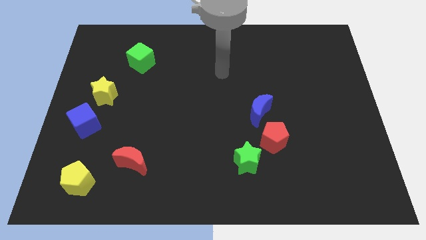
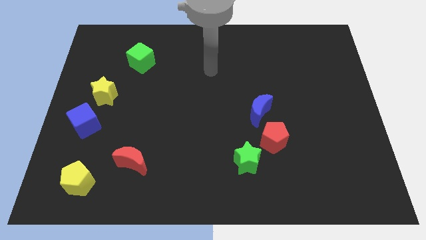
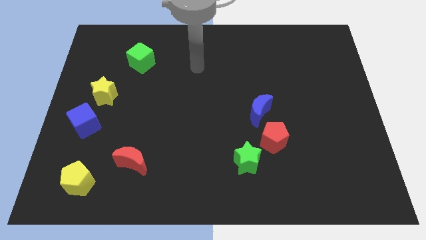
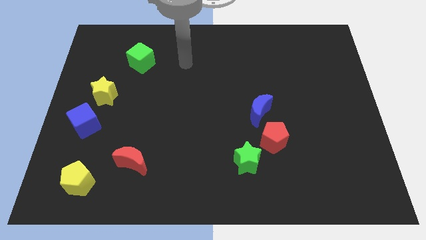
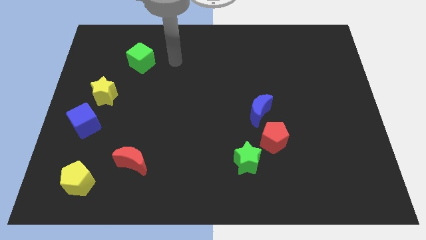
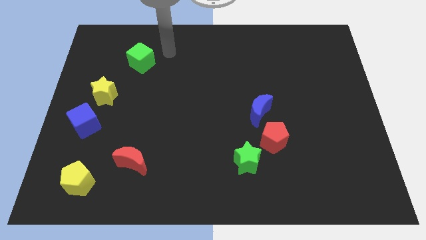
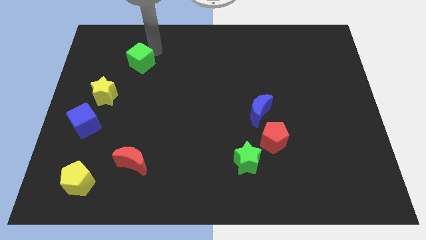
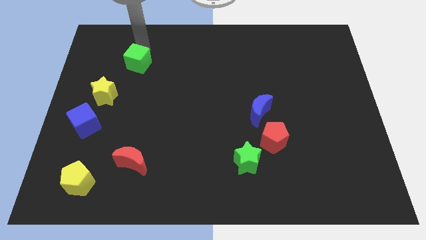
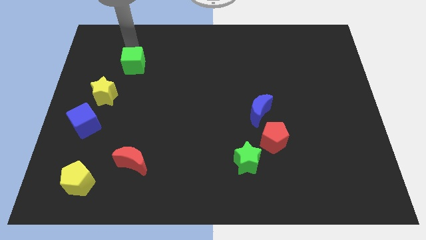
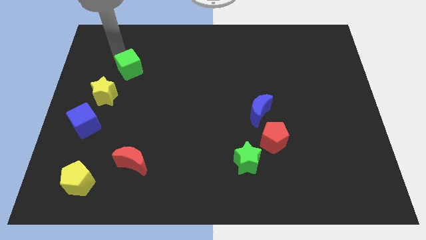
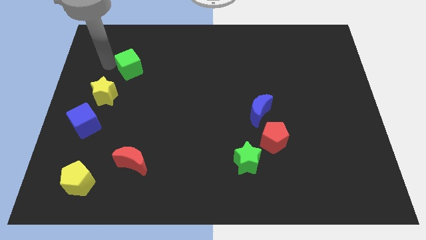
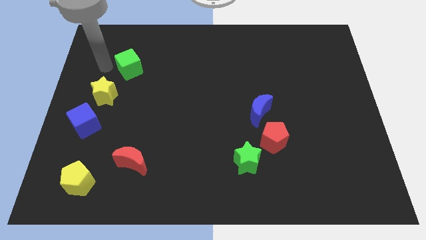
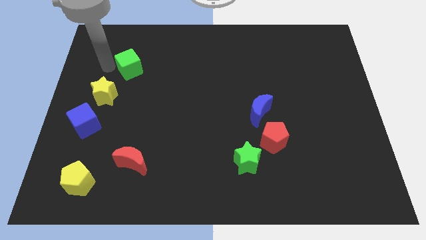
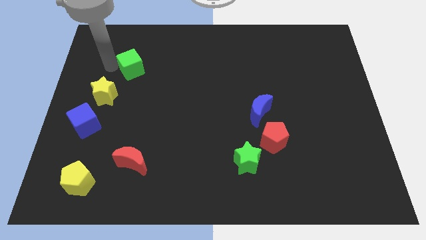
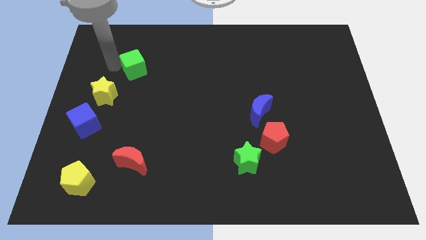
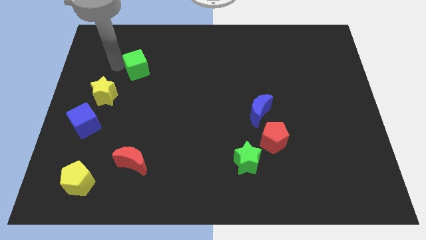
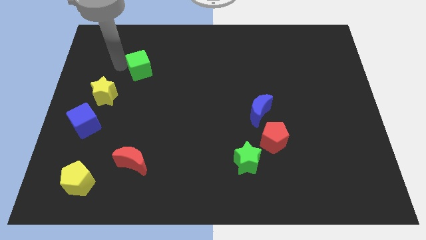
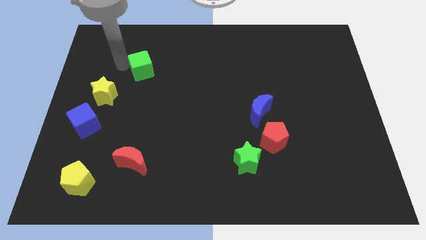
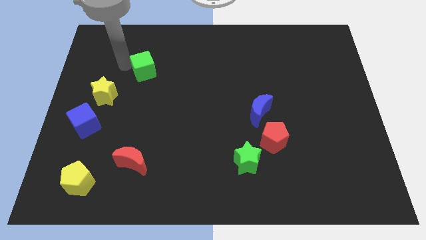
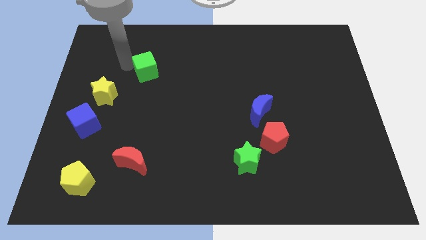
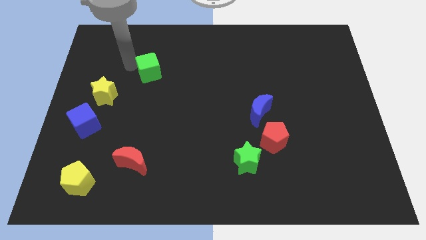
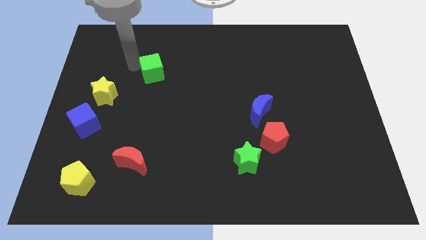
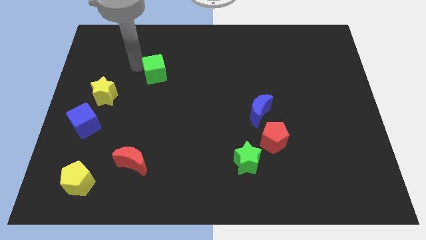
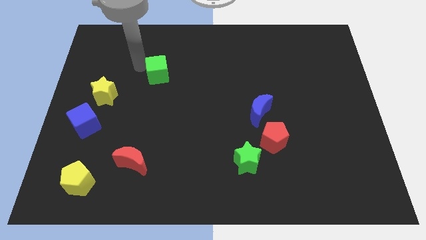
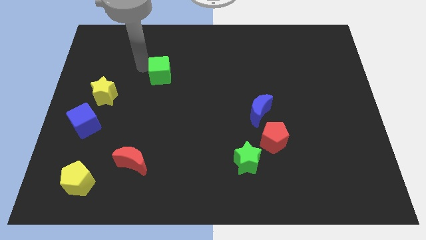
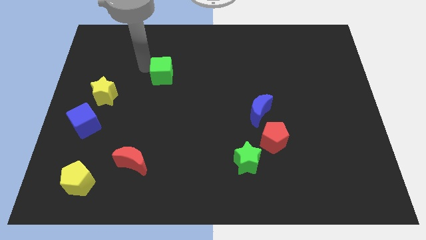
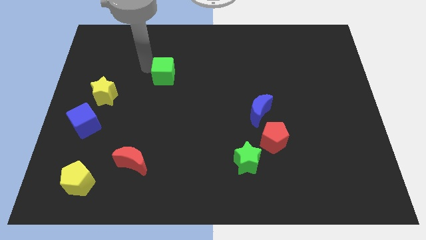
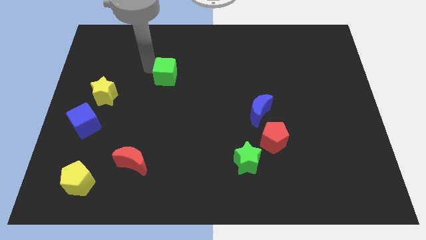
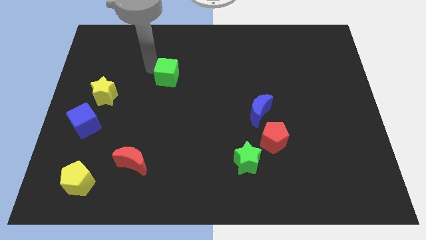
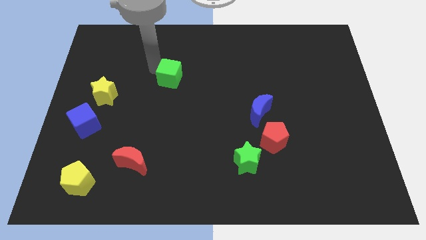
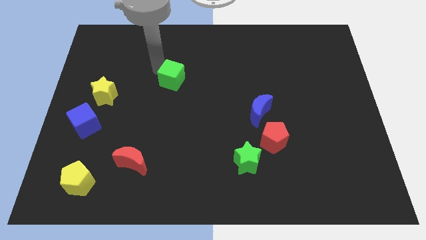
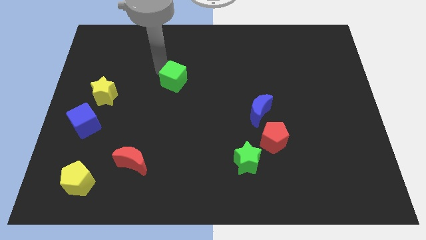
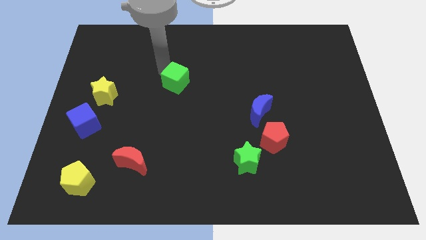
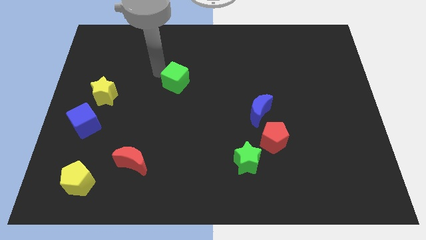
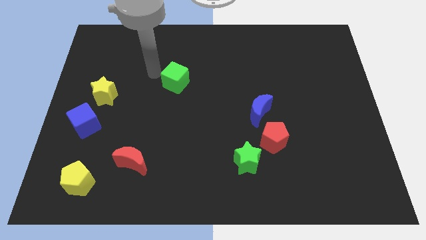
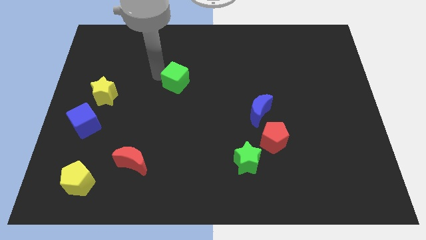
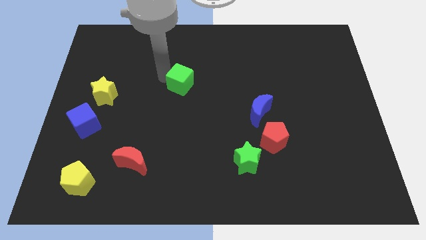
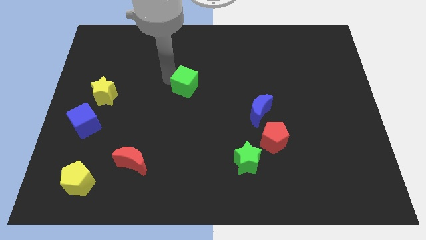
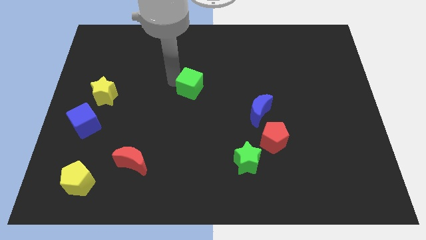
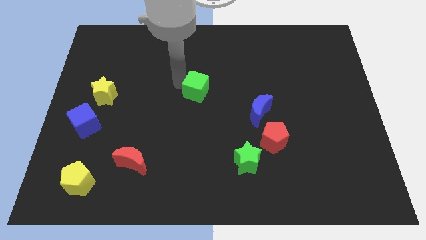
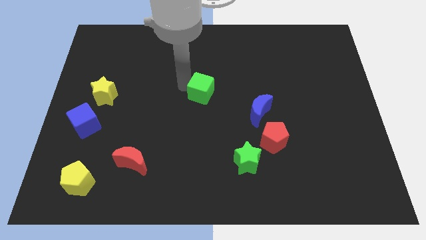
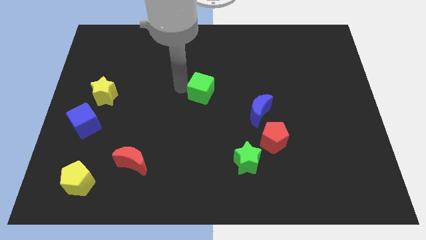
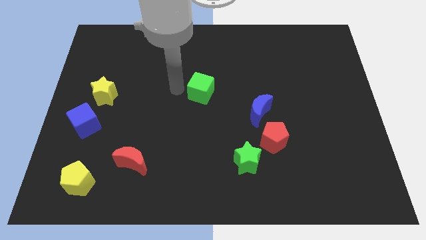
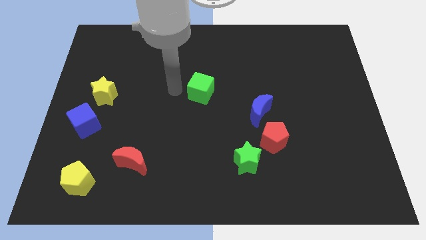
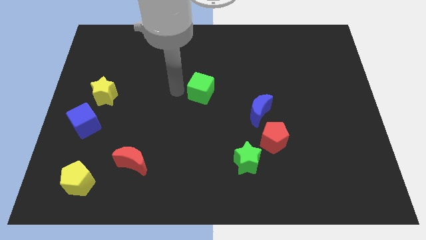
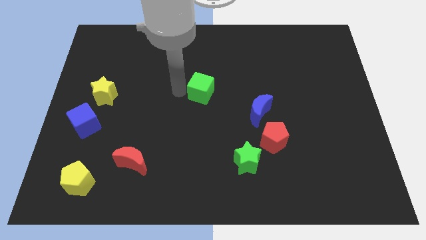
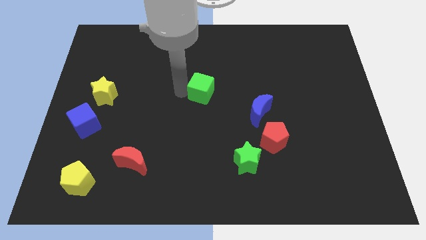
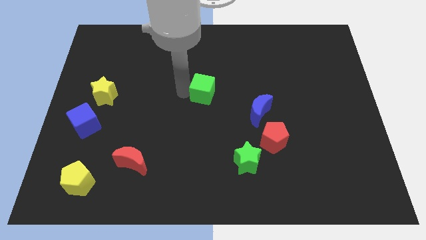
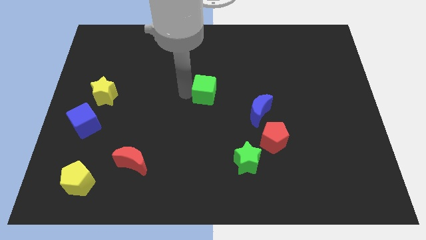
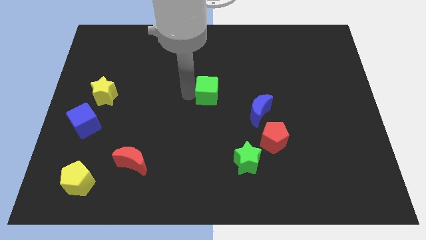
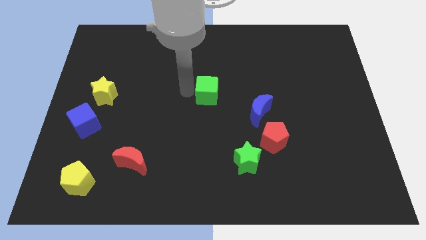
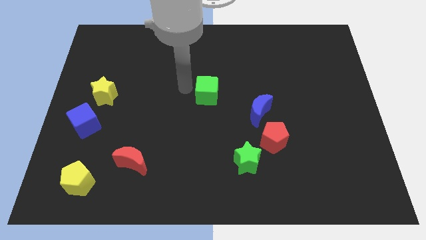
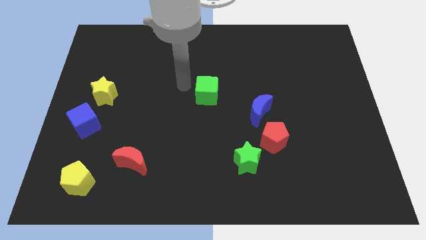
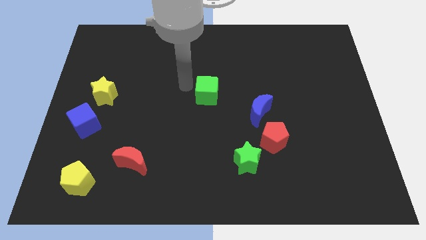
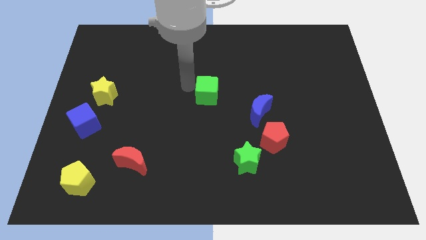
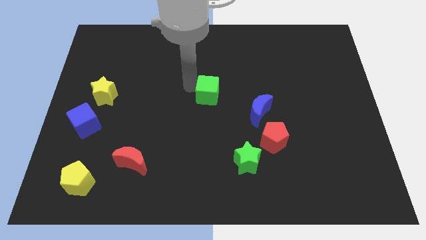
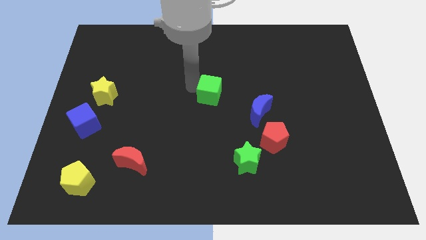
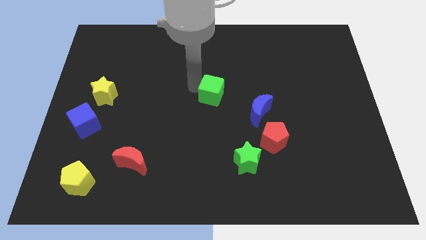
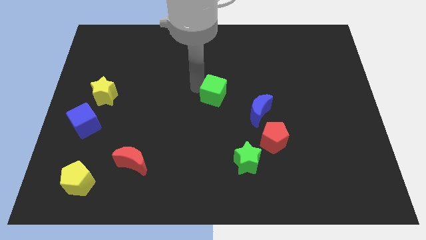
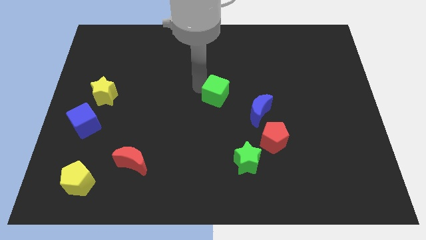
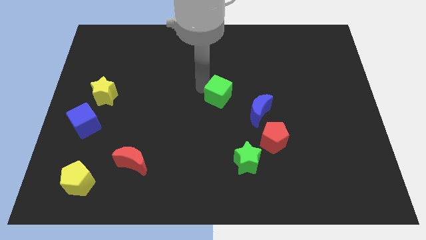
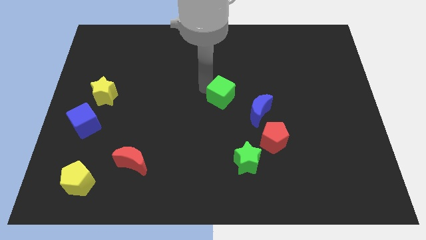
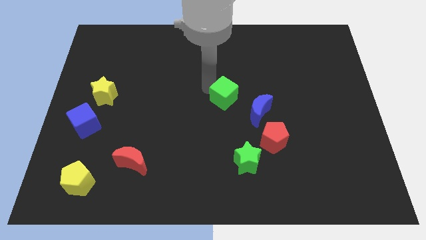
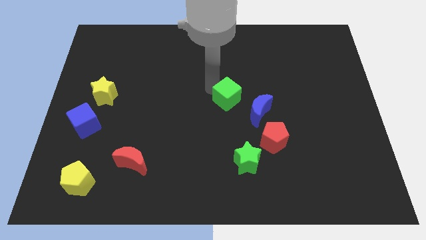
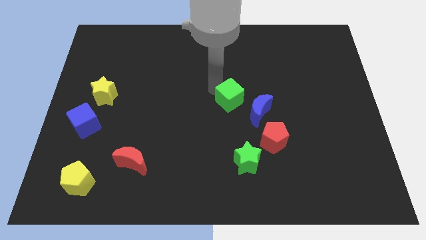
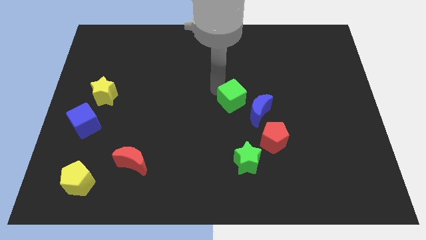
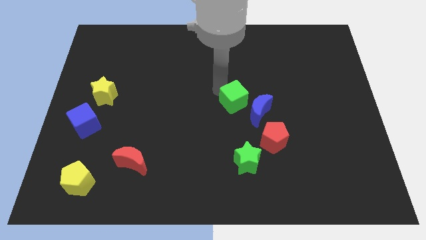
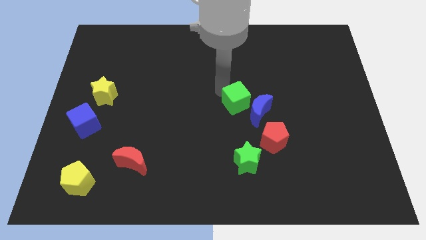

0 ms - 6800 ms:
put the green cube close to the blue moon
